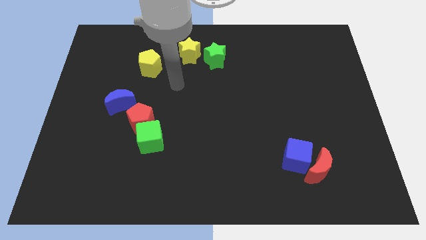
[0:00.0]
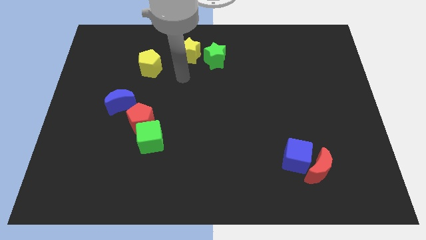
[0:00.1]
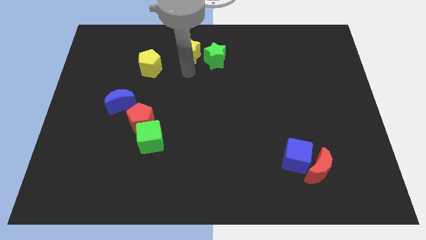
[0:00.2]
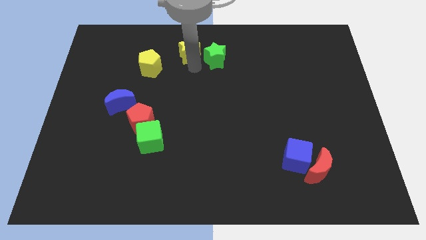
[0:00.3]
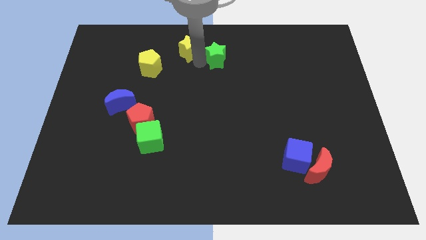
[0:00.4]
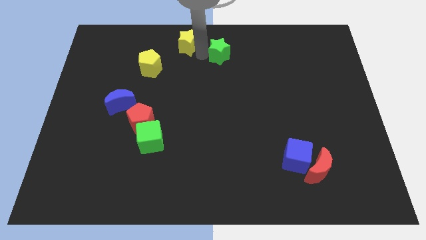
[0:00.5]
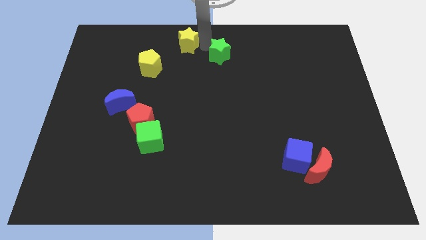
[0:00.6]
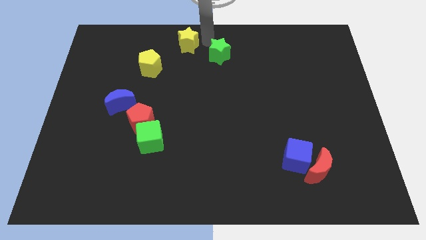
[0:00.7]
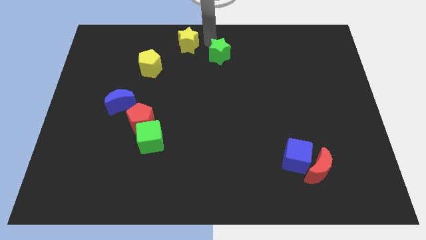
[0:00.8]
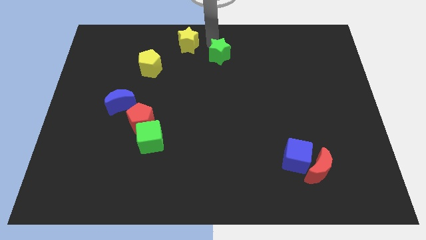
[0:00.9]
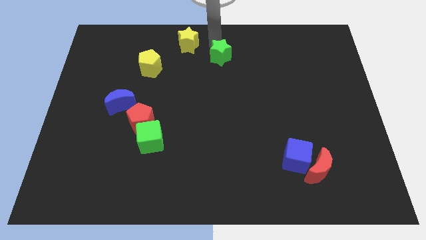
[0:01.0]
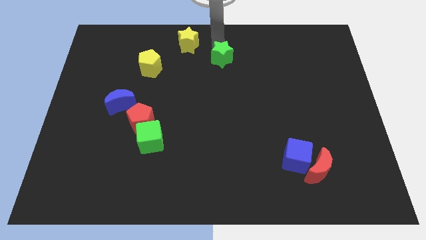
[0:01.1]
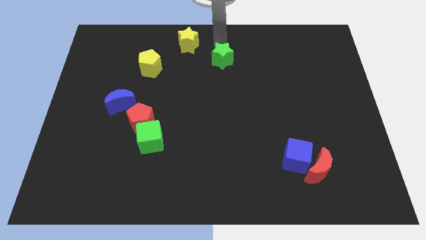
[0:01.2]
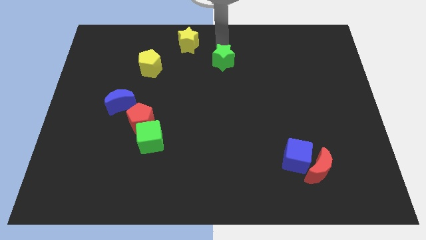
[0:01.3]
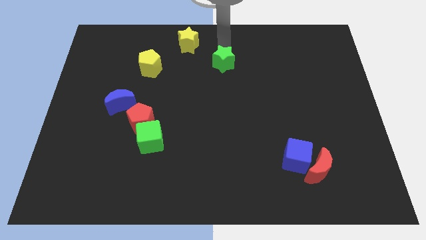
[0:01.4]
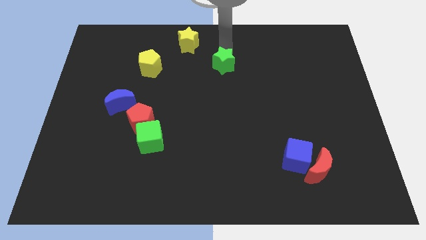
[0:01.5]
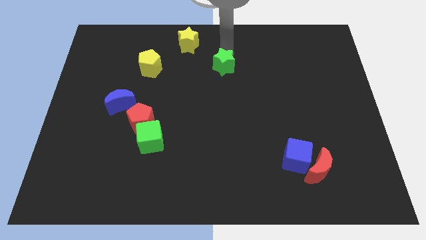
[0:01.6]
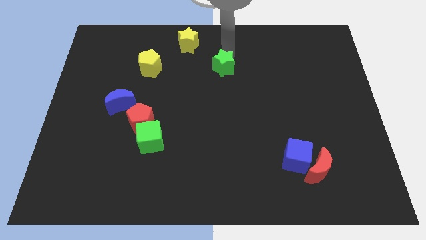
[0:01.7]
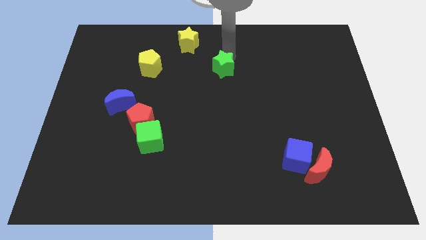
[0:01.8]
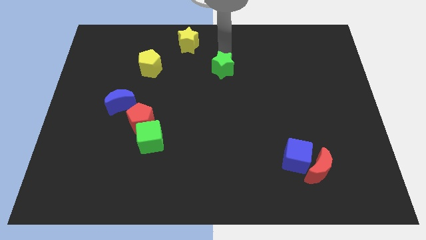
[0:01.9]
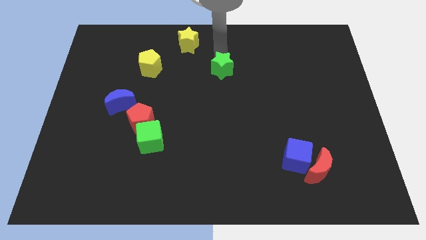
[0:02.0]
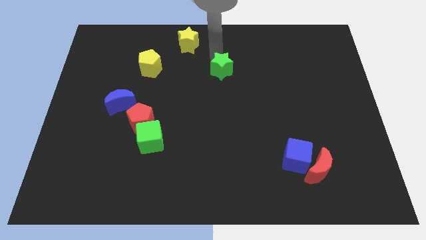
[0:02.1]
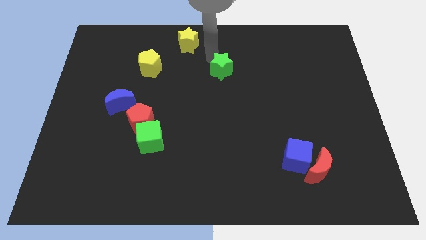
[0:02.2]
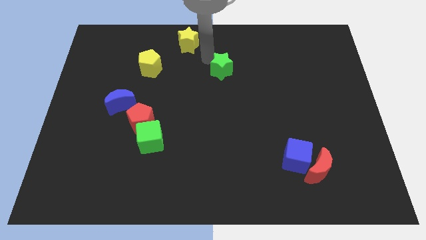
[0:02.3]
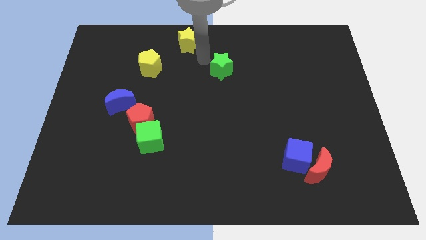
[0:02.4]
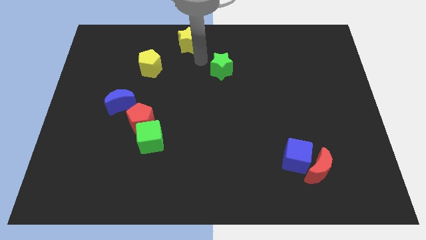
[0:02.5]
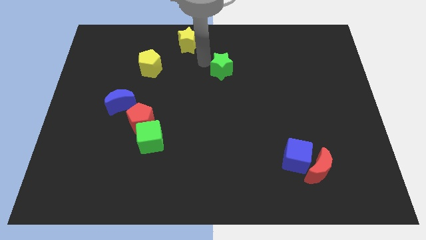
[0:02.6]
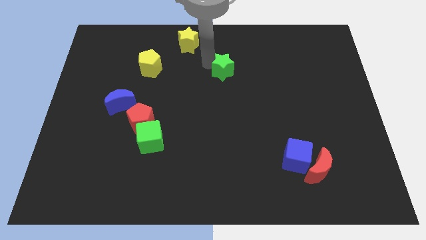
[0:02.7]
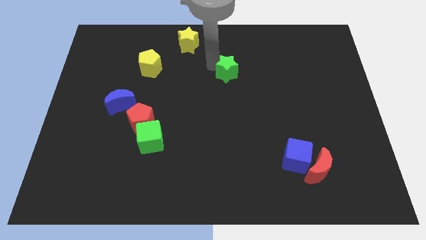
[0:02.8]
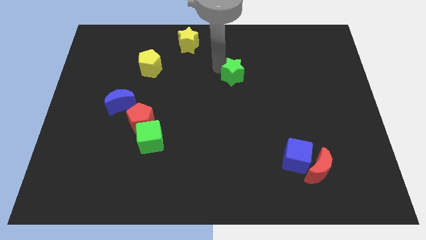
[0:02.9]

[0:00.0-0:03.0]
slightly slide the green star down and then right

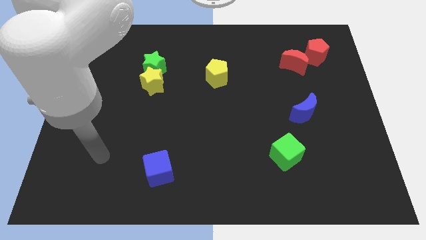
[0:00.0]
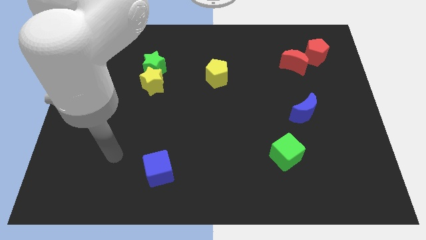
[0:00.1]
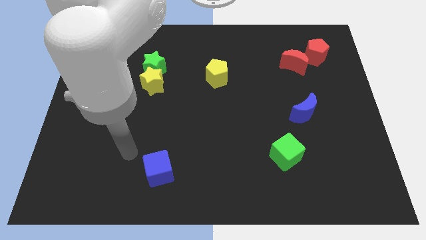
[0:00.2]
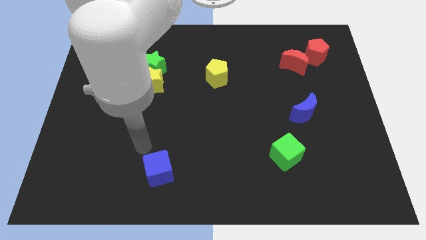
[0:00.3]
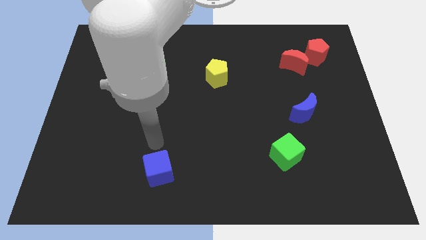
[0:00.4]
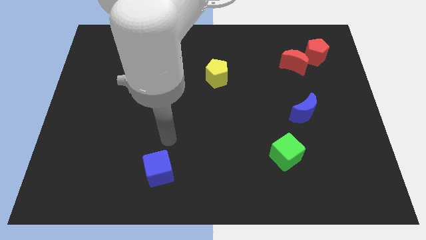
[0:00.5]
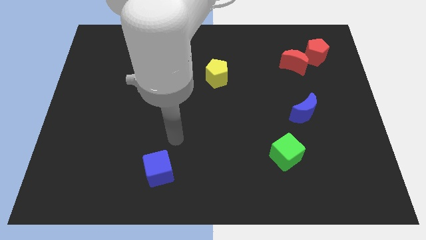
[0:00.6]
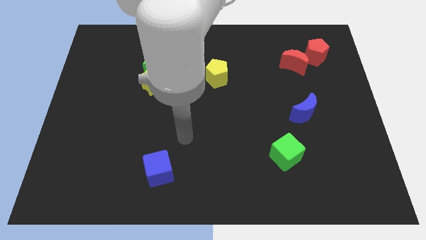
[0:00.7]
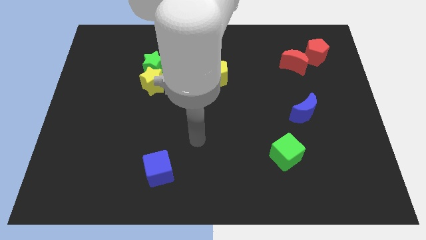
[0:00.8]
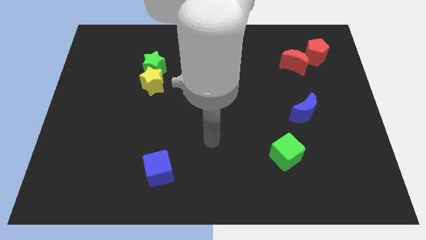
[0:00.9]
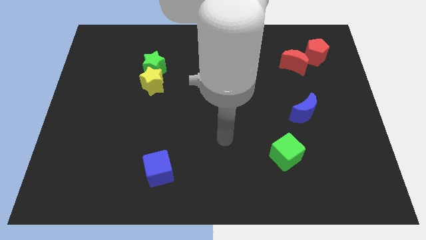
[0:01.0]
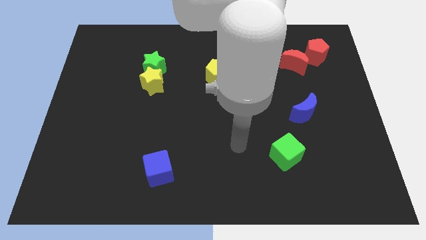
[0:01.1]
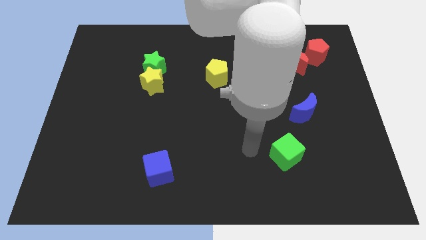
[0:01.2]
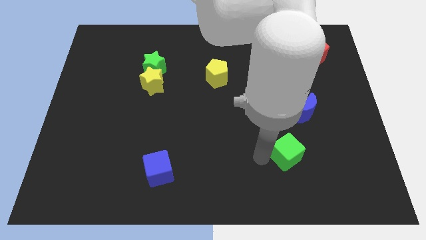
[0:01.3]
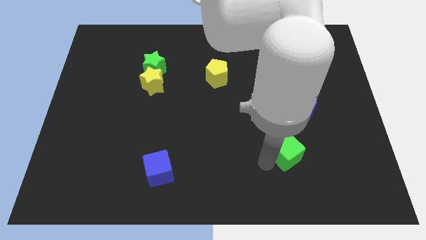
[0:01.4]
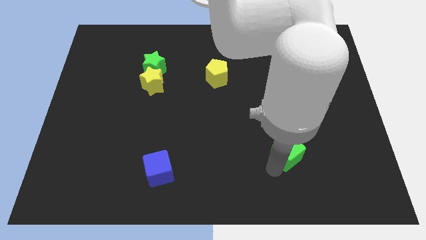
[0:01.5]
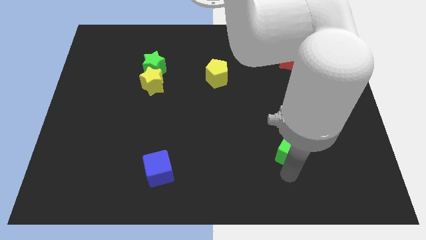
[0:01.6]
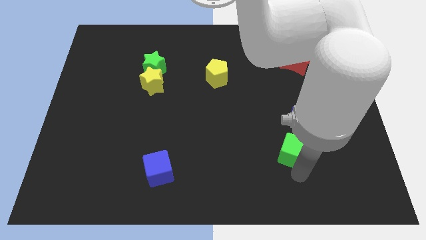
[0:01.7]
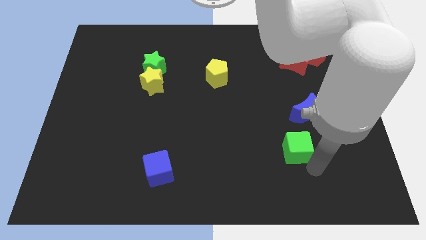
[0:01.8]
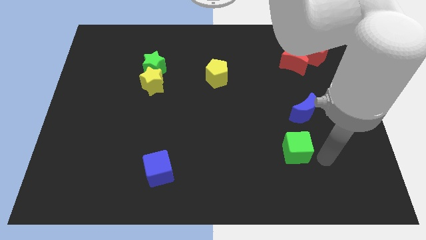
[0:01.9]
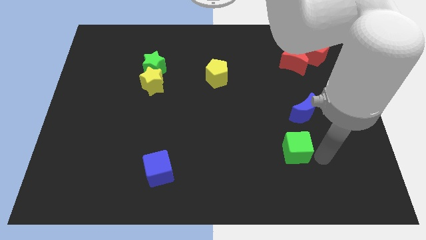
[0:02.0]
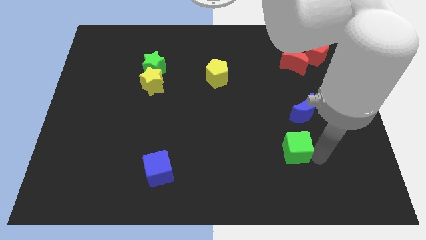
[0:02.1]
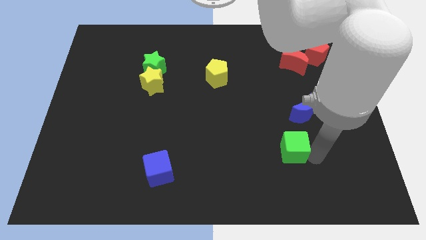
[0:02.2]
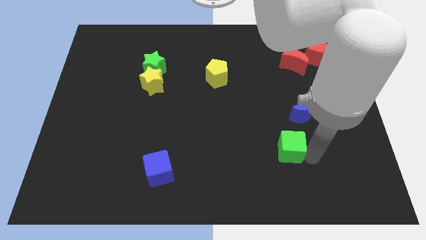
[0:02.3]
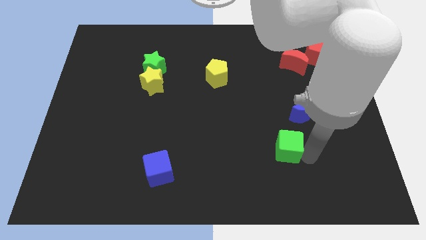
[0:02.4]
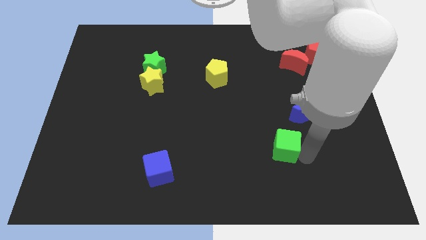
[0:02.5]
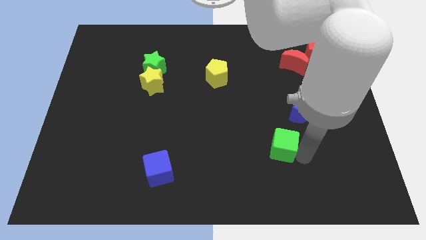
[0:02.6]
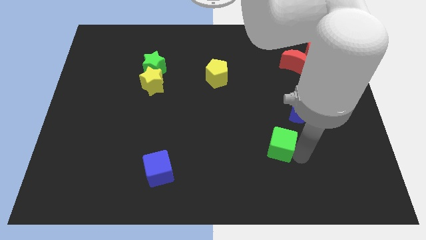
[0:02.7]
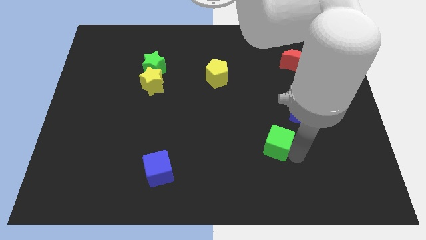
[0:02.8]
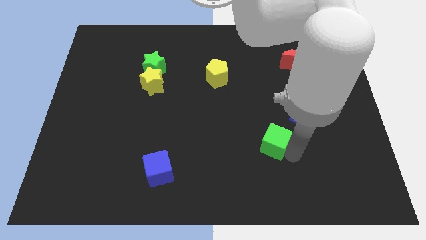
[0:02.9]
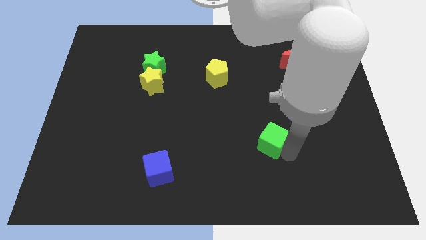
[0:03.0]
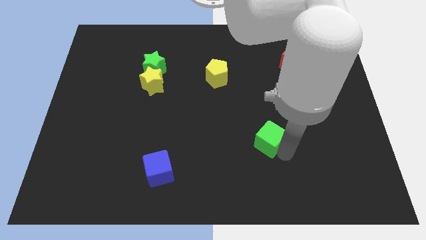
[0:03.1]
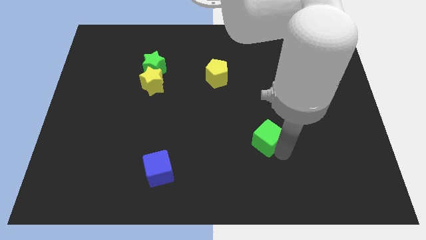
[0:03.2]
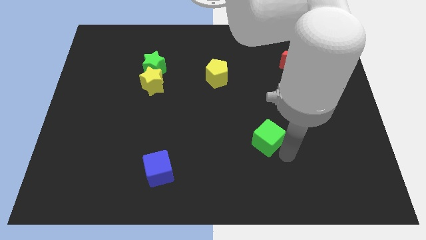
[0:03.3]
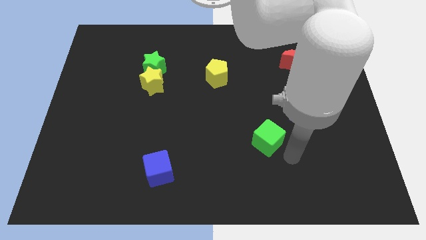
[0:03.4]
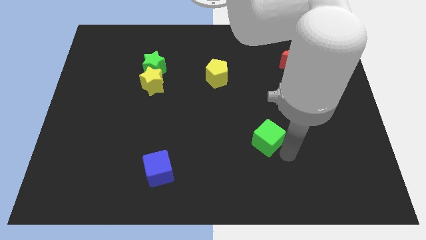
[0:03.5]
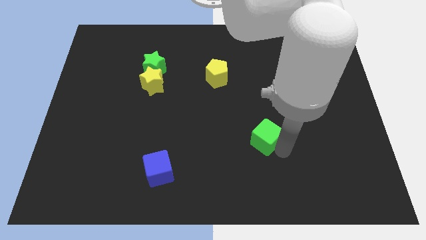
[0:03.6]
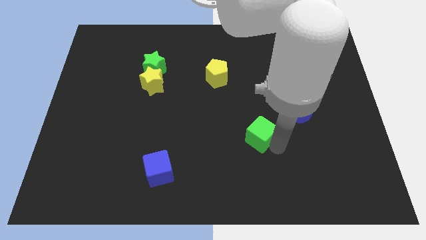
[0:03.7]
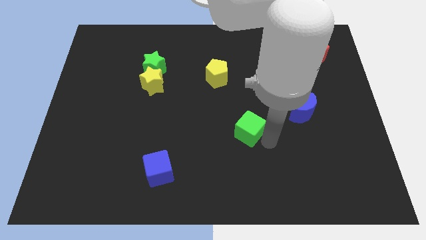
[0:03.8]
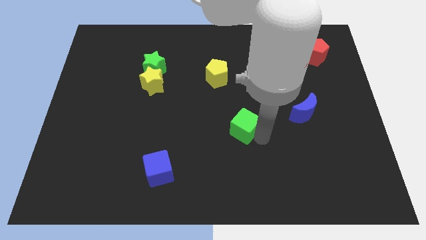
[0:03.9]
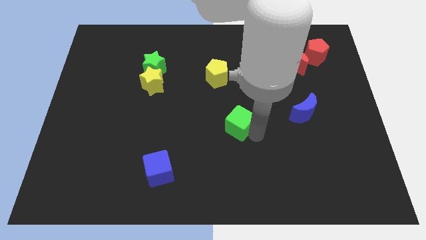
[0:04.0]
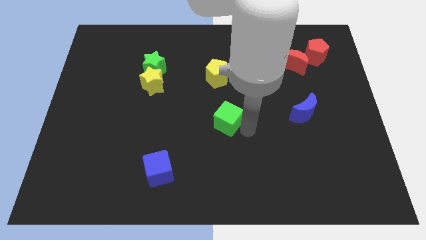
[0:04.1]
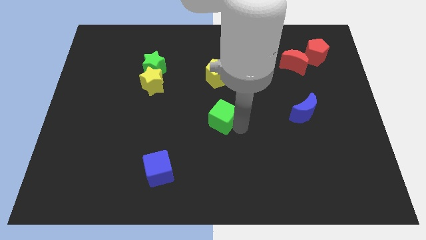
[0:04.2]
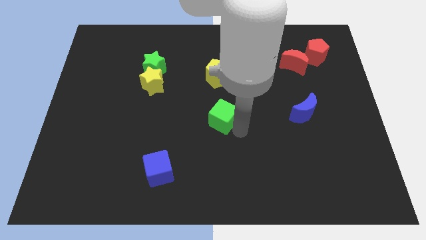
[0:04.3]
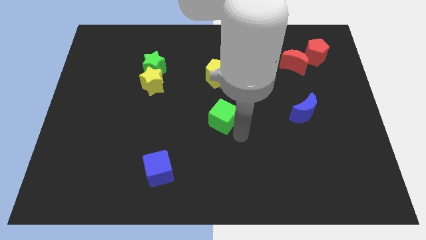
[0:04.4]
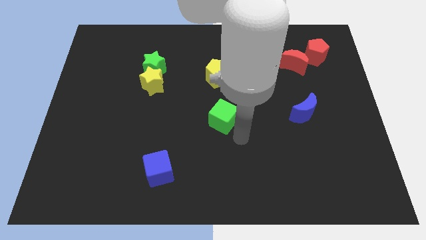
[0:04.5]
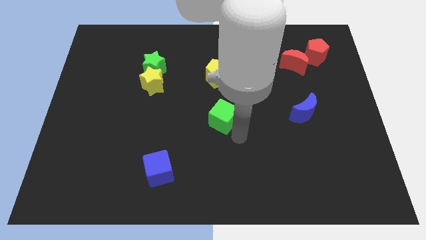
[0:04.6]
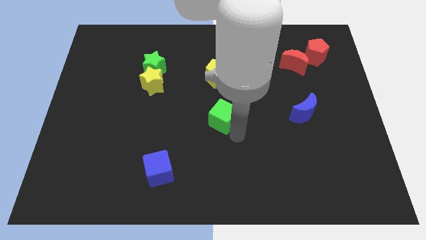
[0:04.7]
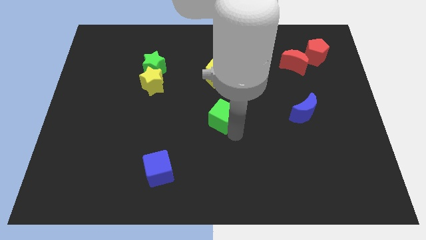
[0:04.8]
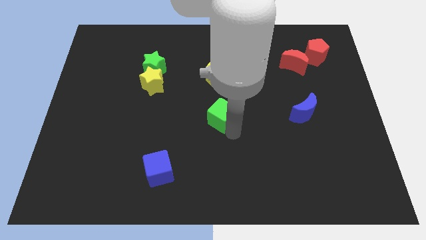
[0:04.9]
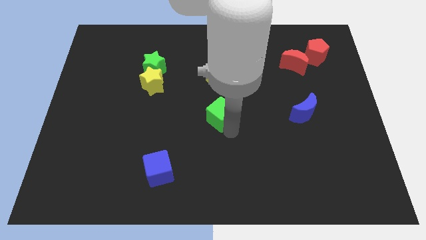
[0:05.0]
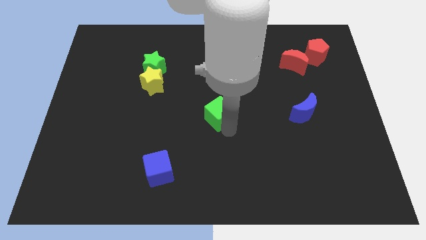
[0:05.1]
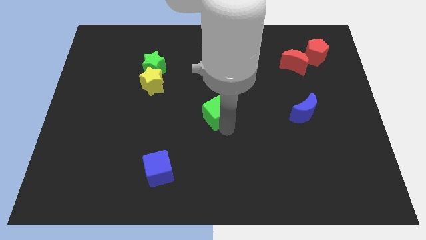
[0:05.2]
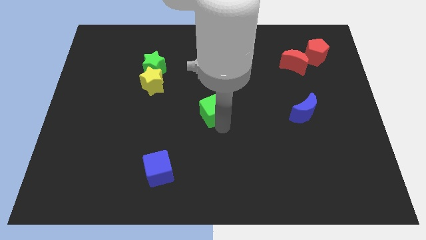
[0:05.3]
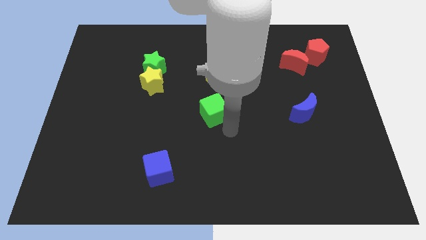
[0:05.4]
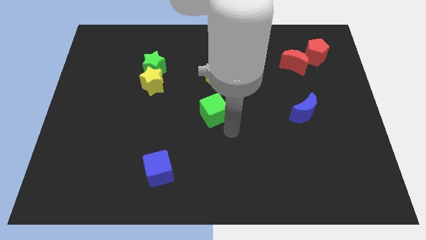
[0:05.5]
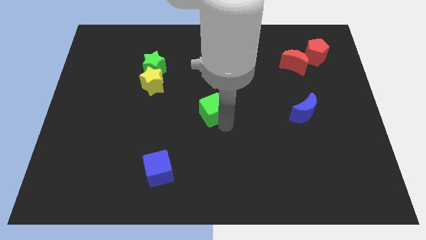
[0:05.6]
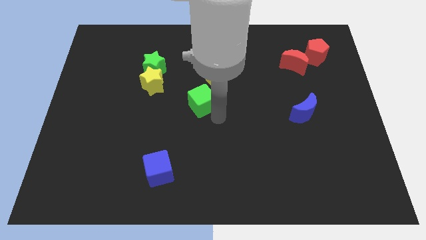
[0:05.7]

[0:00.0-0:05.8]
slide the green cube upwards and then left
